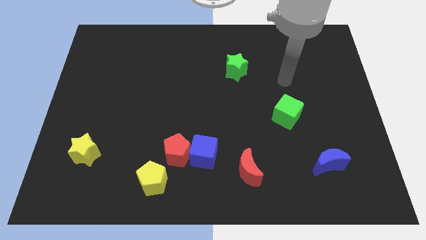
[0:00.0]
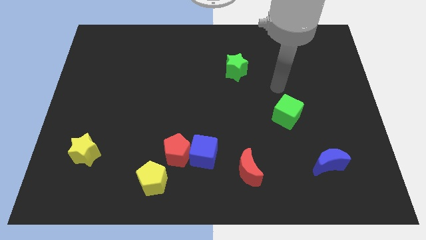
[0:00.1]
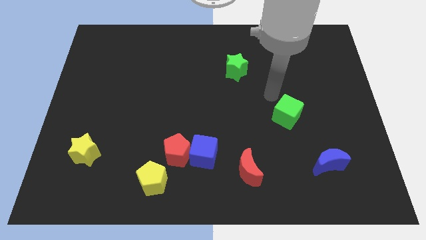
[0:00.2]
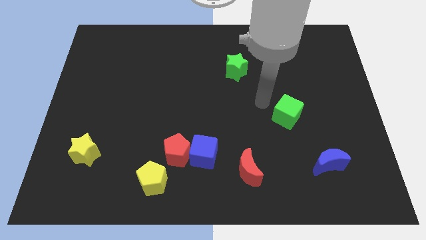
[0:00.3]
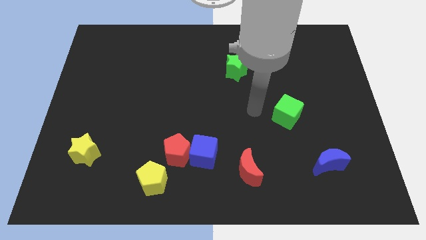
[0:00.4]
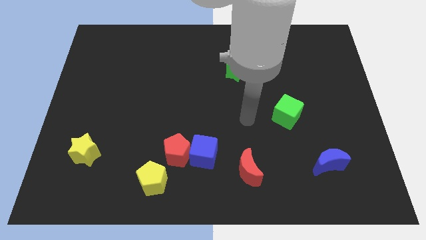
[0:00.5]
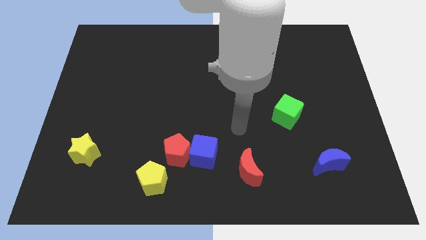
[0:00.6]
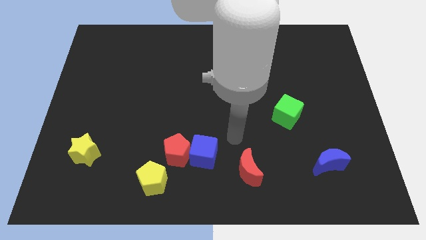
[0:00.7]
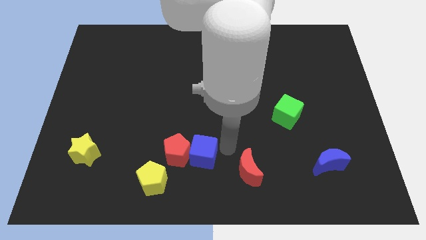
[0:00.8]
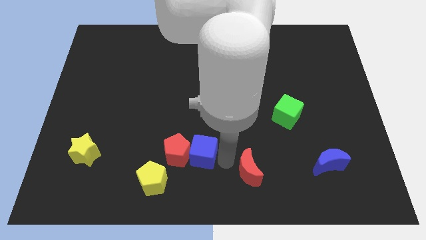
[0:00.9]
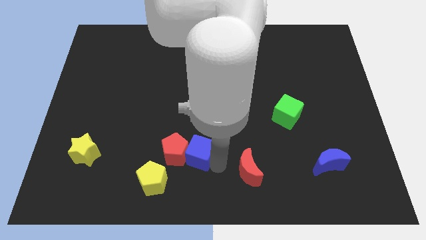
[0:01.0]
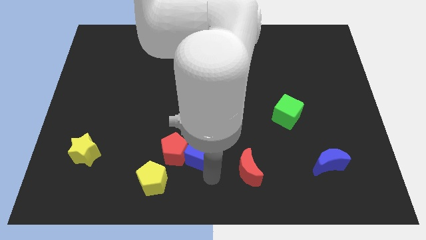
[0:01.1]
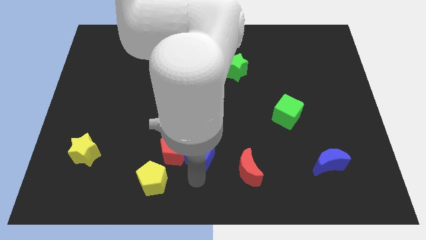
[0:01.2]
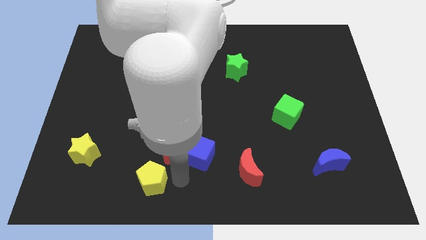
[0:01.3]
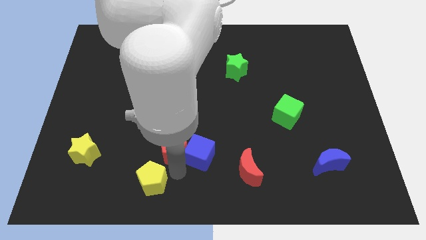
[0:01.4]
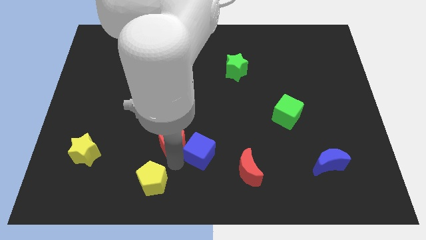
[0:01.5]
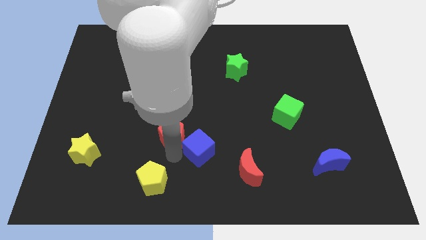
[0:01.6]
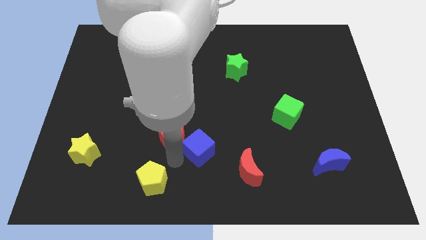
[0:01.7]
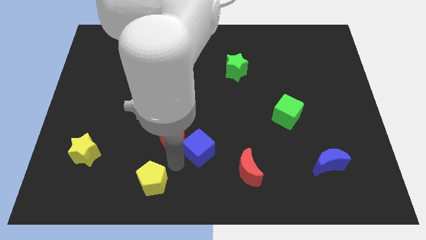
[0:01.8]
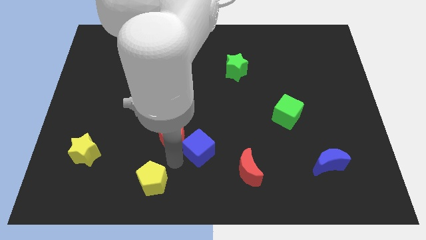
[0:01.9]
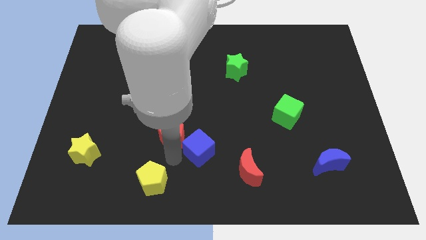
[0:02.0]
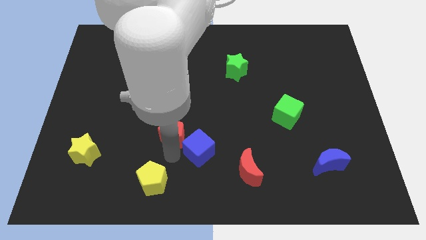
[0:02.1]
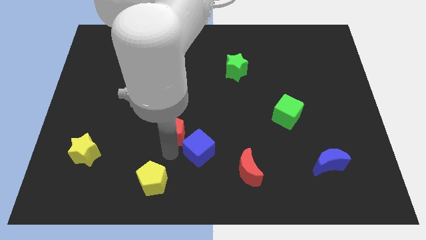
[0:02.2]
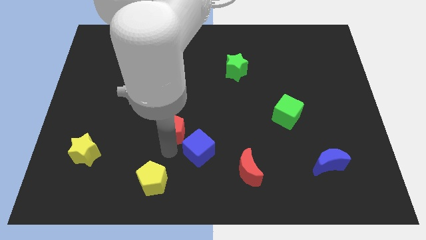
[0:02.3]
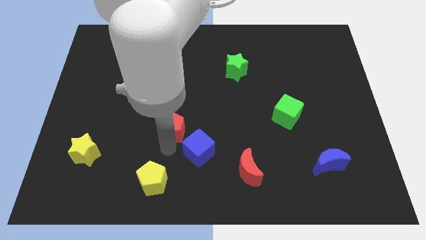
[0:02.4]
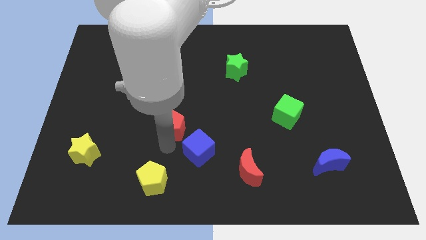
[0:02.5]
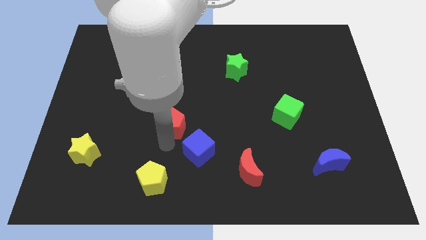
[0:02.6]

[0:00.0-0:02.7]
pull the red pentagon apart from the blue cube and yellow pentagon

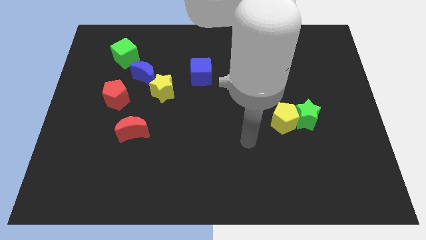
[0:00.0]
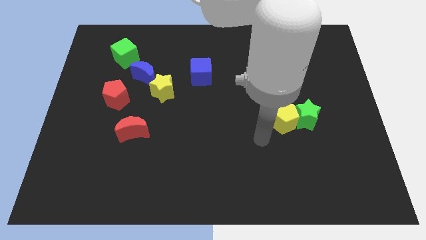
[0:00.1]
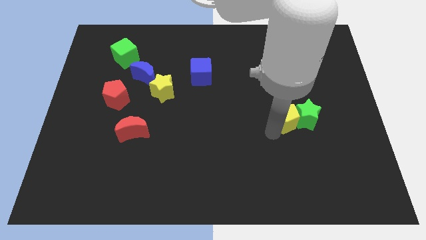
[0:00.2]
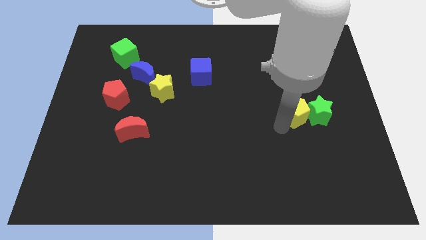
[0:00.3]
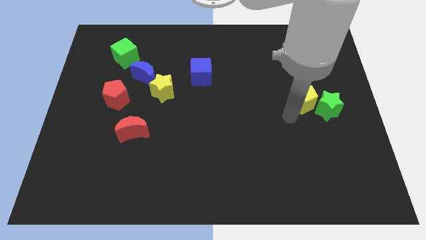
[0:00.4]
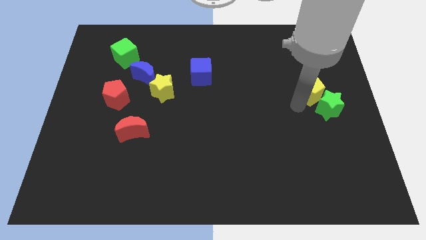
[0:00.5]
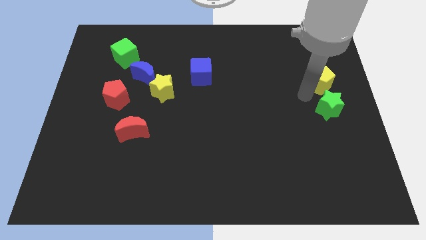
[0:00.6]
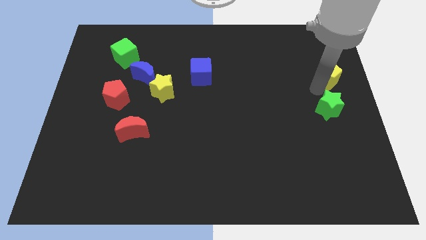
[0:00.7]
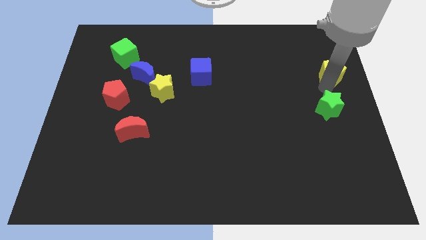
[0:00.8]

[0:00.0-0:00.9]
move the green star away from the yellow pentagon

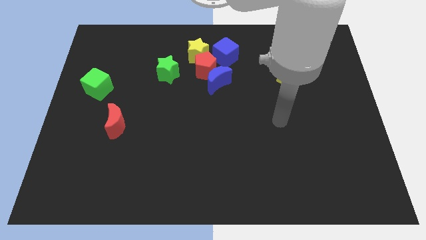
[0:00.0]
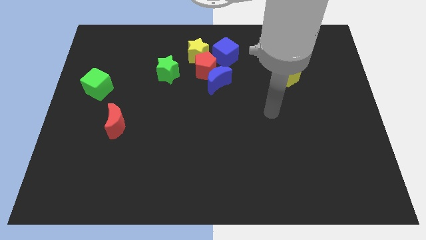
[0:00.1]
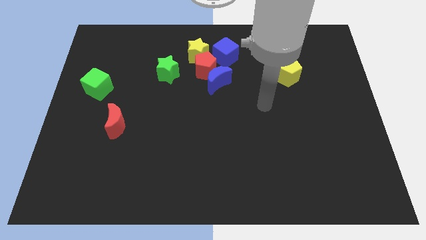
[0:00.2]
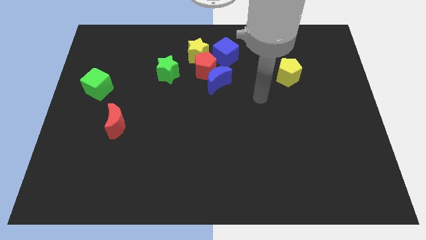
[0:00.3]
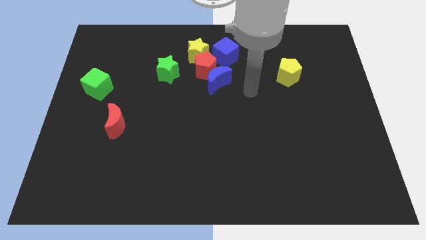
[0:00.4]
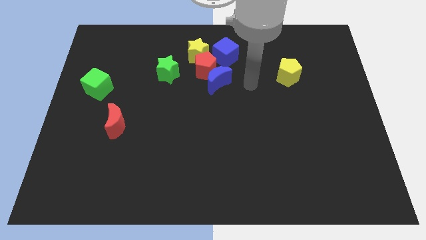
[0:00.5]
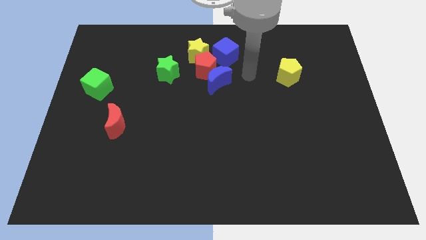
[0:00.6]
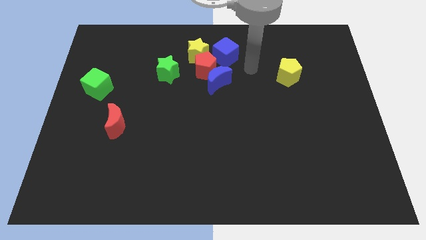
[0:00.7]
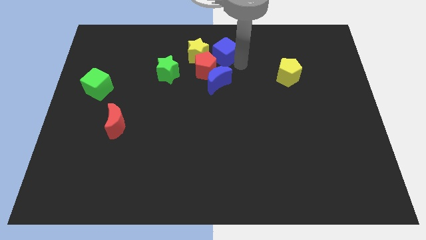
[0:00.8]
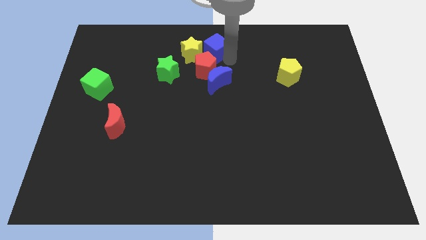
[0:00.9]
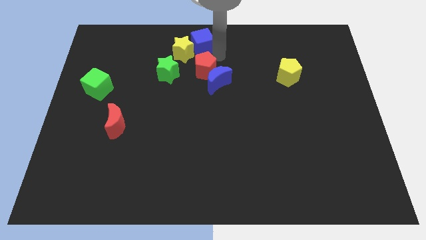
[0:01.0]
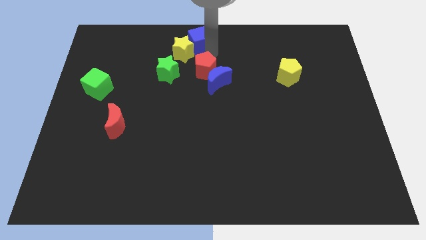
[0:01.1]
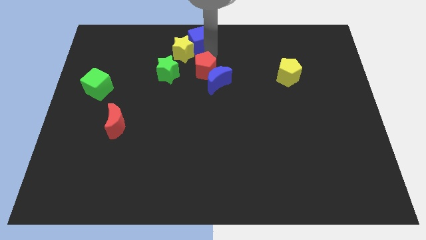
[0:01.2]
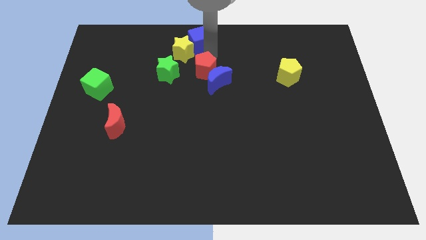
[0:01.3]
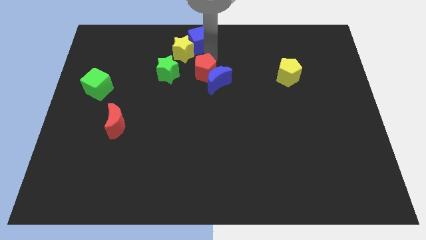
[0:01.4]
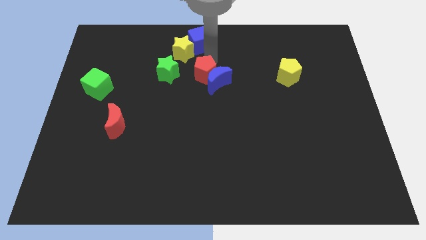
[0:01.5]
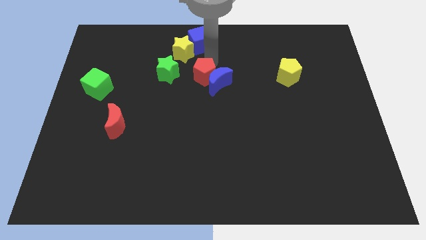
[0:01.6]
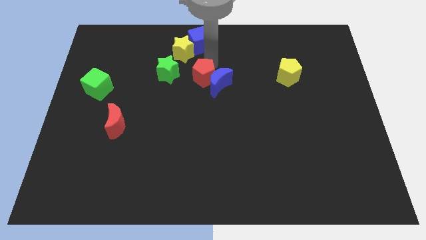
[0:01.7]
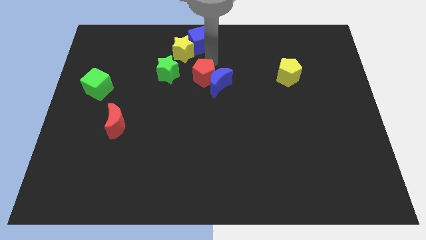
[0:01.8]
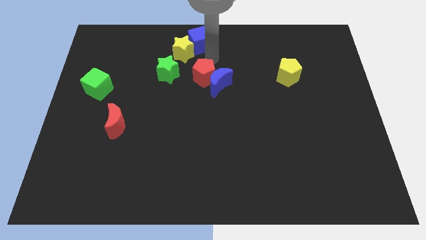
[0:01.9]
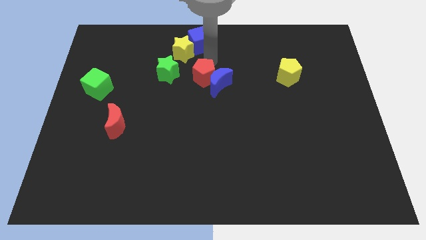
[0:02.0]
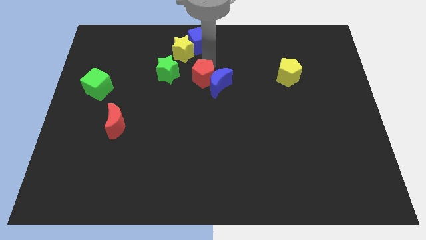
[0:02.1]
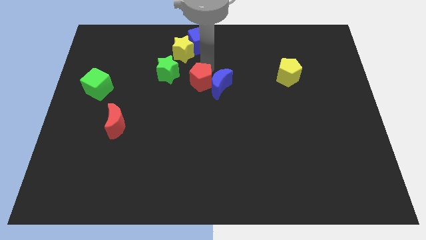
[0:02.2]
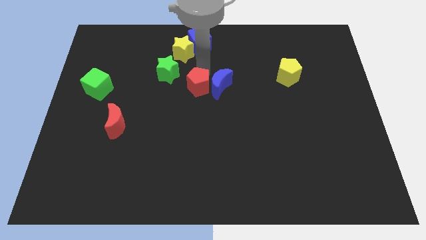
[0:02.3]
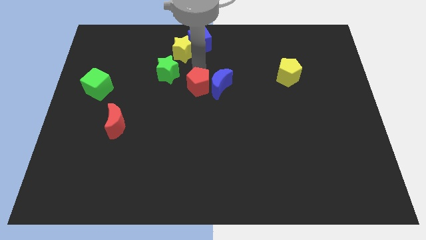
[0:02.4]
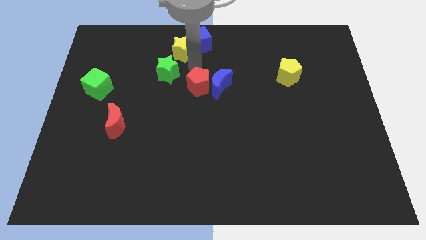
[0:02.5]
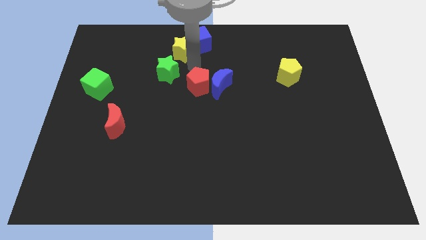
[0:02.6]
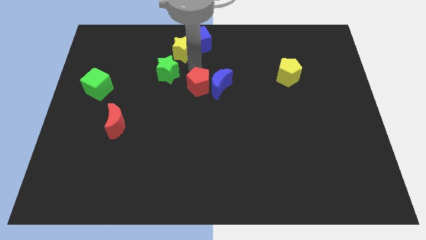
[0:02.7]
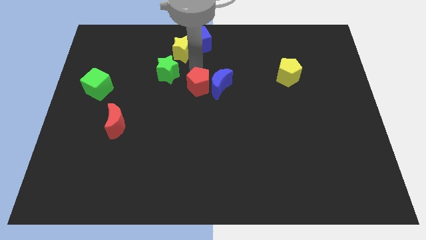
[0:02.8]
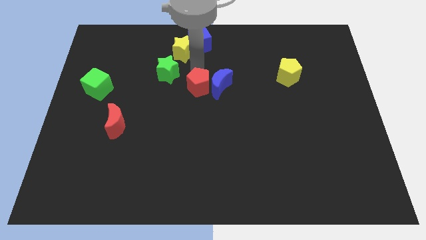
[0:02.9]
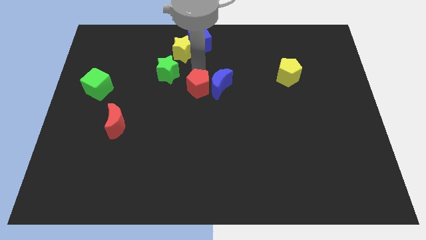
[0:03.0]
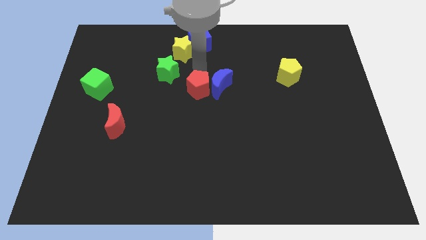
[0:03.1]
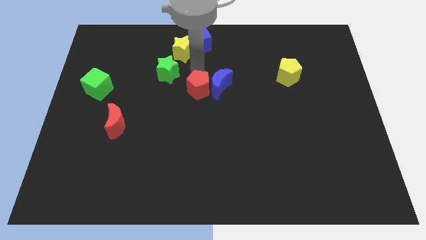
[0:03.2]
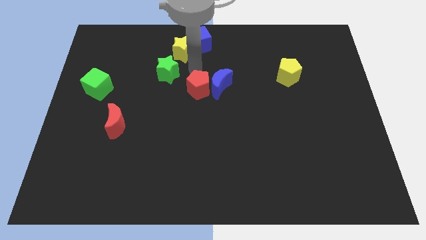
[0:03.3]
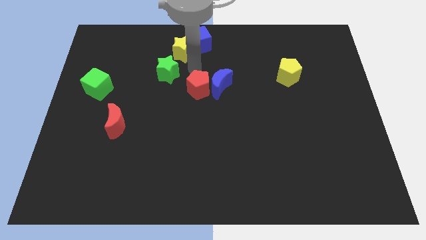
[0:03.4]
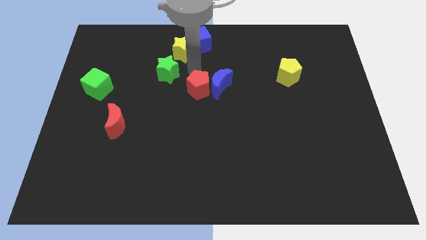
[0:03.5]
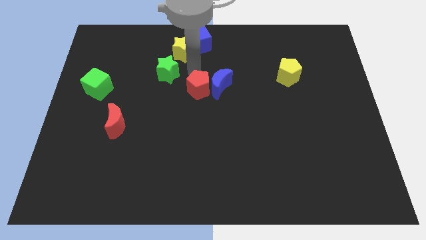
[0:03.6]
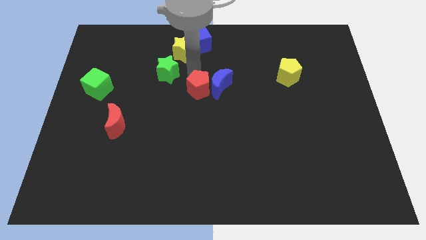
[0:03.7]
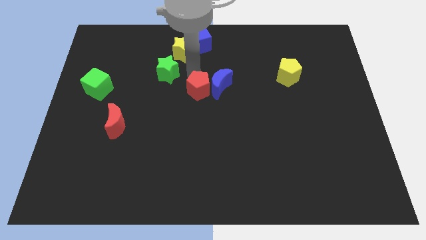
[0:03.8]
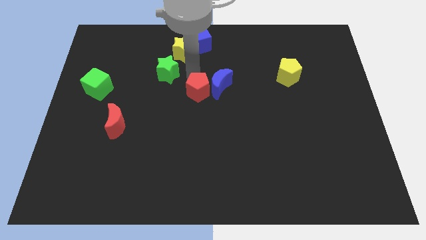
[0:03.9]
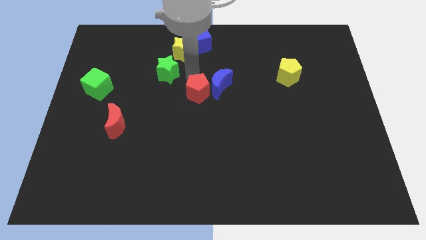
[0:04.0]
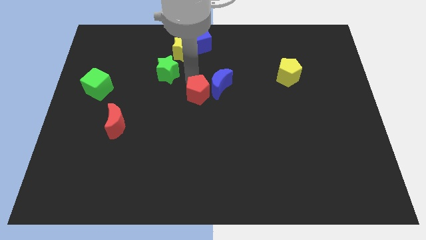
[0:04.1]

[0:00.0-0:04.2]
pull the red pentagon apart from the clump

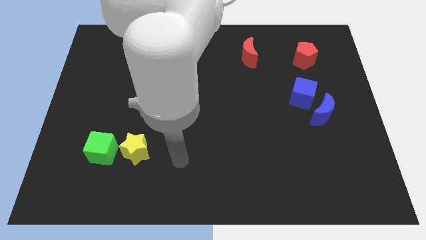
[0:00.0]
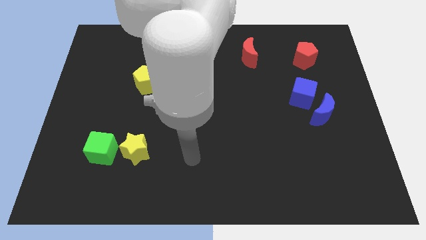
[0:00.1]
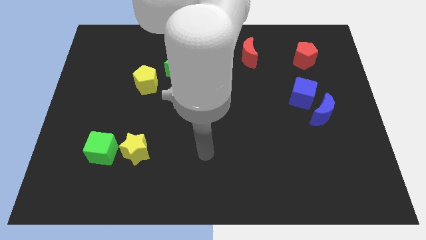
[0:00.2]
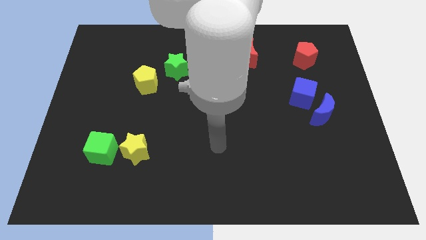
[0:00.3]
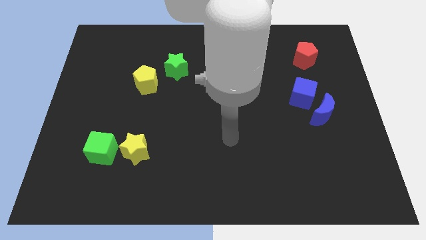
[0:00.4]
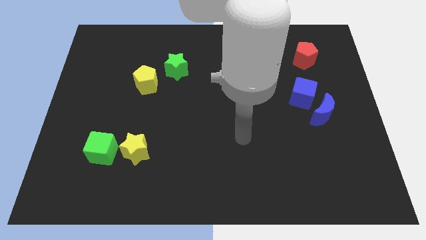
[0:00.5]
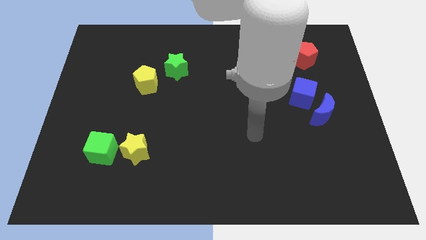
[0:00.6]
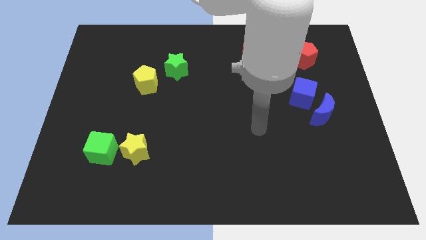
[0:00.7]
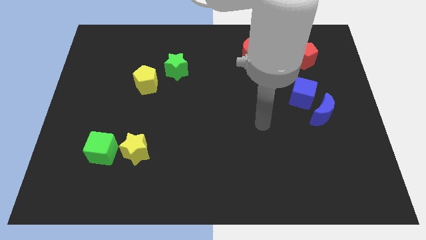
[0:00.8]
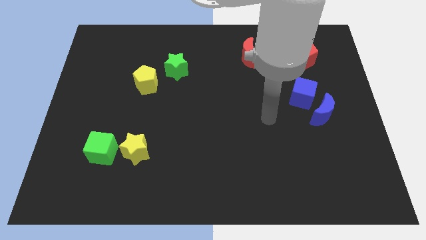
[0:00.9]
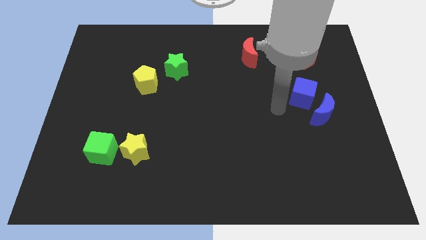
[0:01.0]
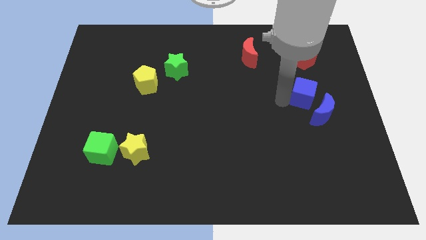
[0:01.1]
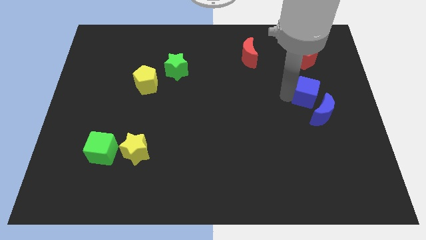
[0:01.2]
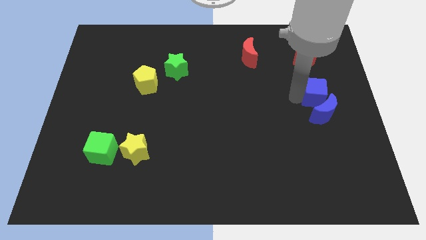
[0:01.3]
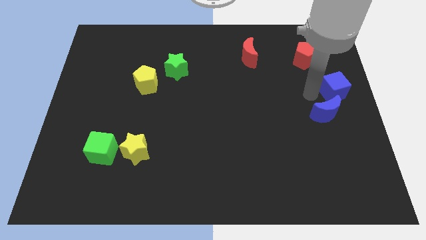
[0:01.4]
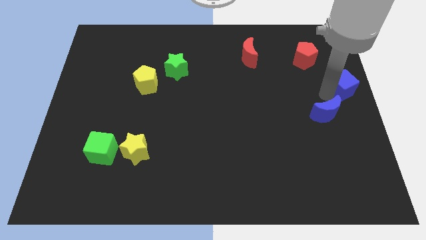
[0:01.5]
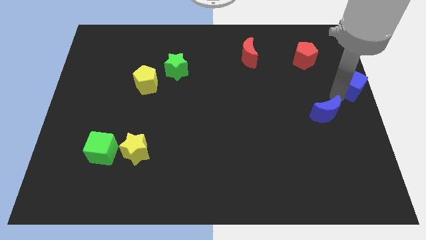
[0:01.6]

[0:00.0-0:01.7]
separate the blue moon from the blue cube
